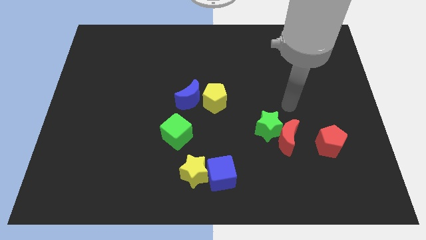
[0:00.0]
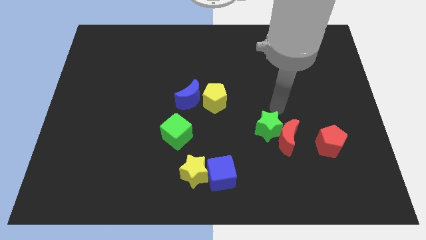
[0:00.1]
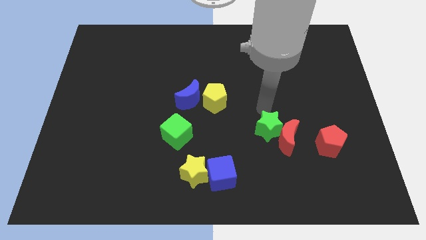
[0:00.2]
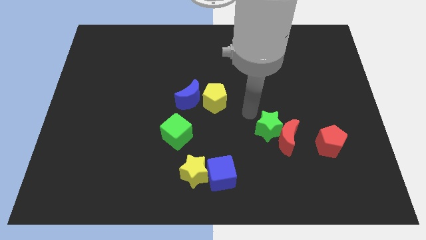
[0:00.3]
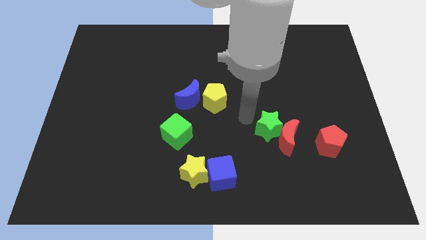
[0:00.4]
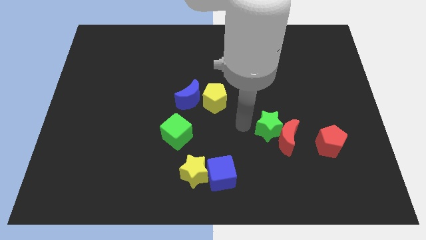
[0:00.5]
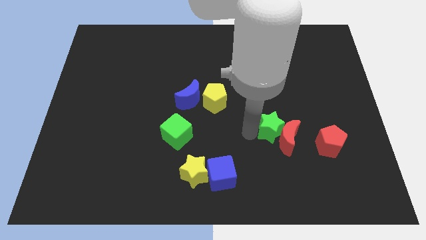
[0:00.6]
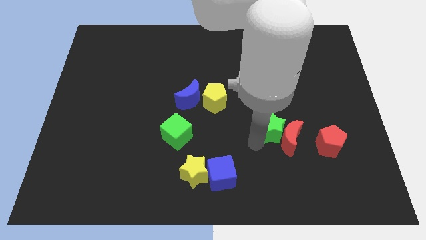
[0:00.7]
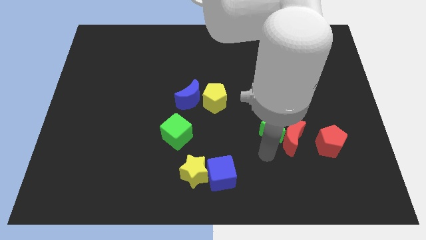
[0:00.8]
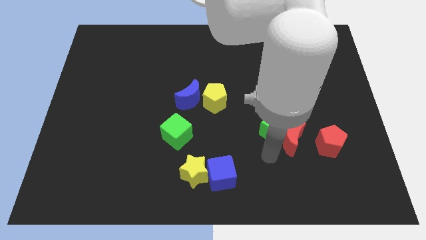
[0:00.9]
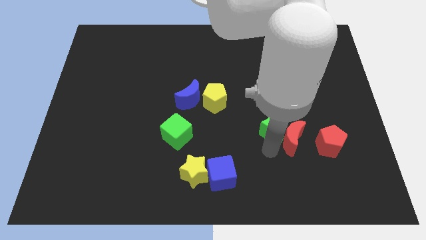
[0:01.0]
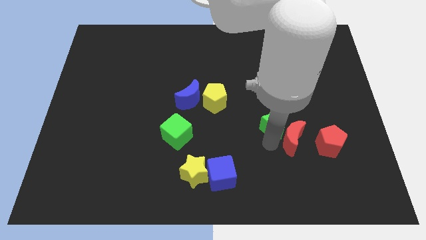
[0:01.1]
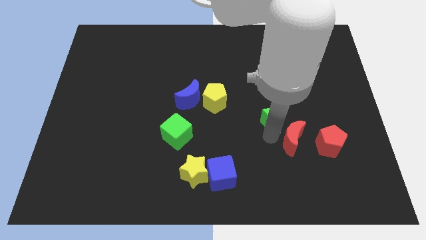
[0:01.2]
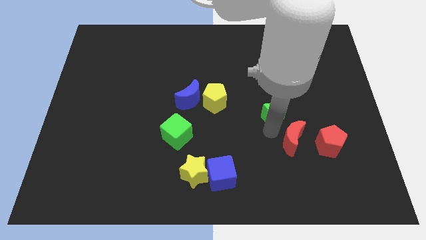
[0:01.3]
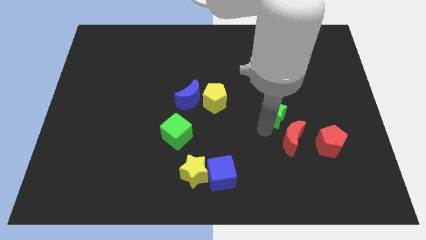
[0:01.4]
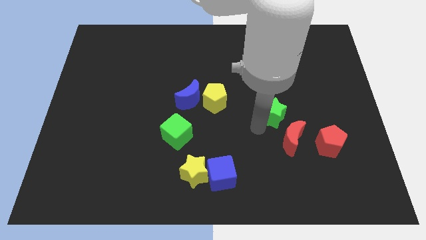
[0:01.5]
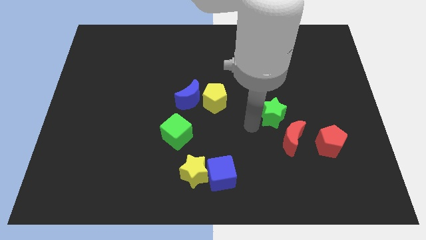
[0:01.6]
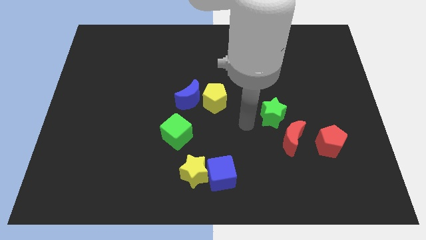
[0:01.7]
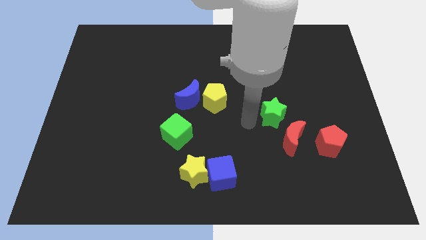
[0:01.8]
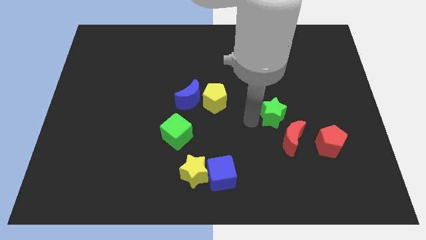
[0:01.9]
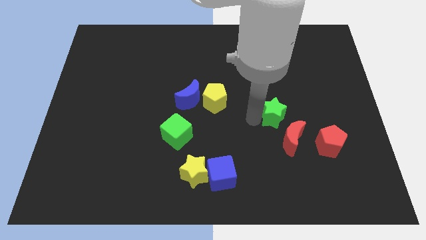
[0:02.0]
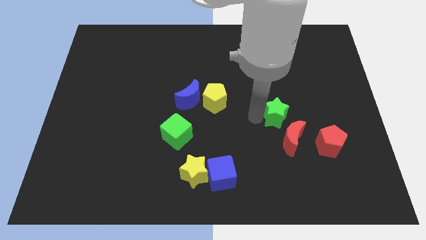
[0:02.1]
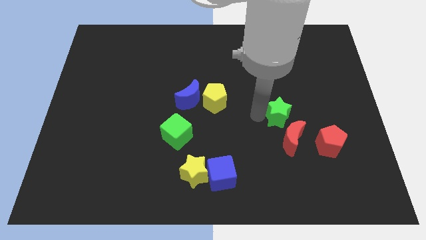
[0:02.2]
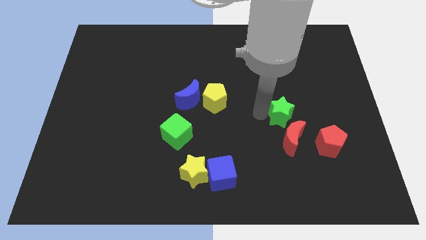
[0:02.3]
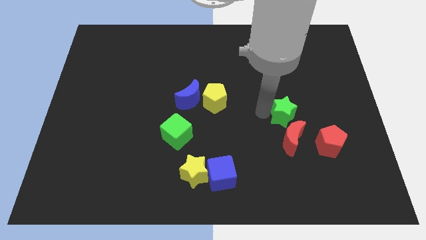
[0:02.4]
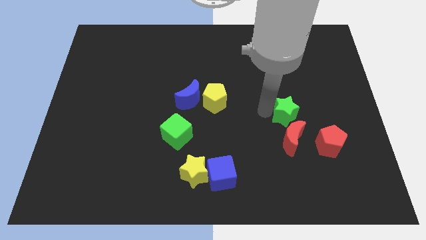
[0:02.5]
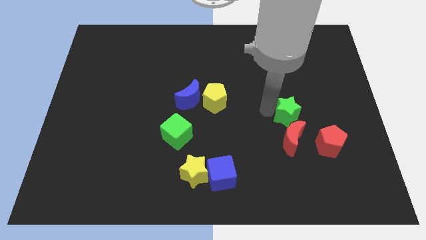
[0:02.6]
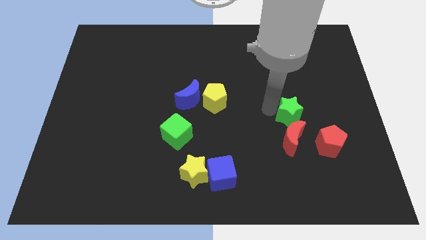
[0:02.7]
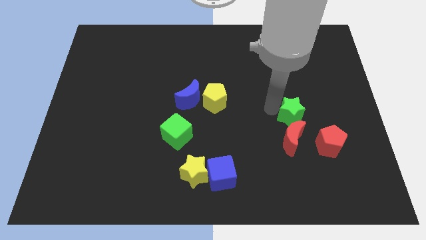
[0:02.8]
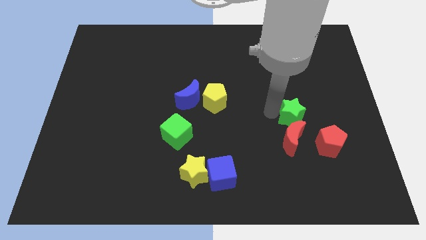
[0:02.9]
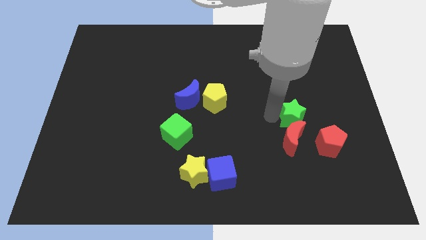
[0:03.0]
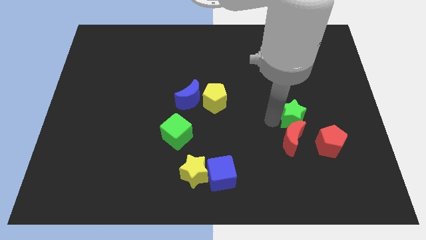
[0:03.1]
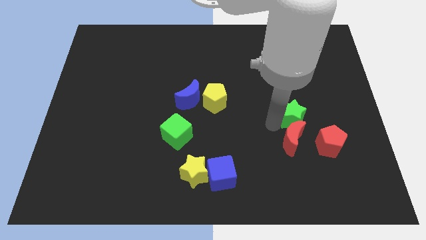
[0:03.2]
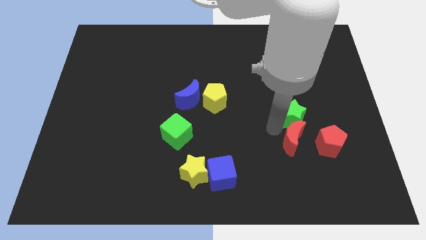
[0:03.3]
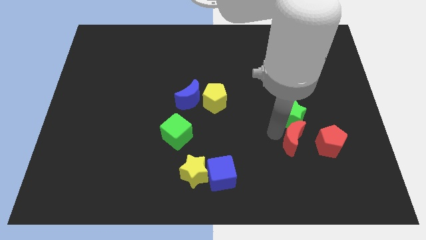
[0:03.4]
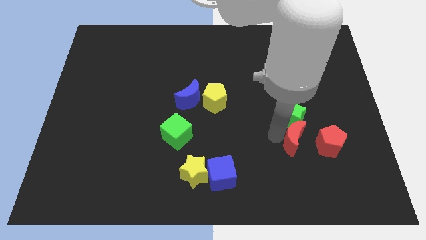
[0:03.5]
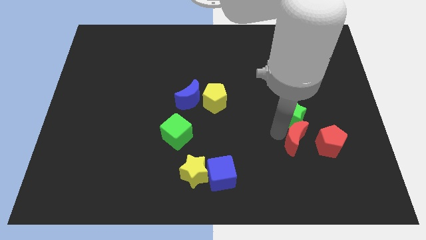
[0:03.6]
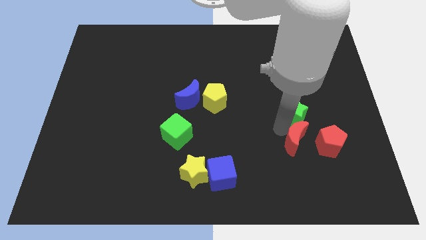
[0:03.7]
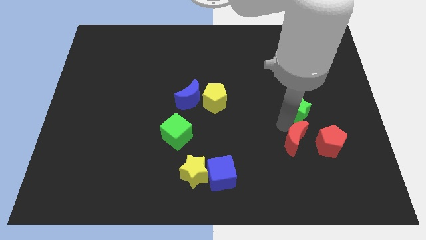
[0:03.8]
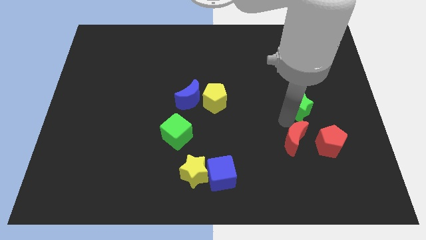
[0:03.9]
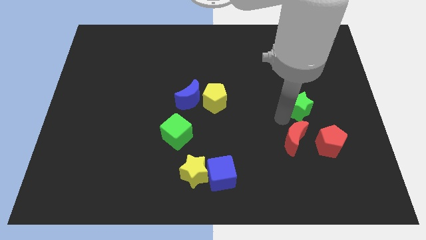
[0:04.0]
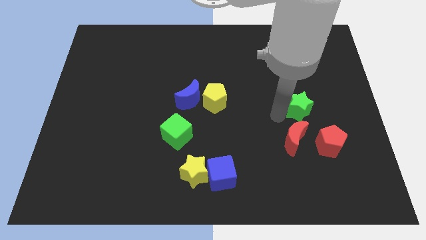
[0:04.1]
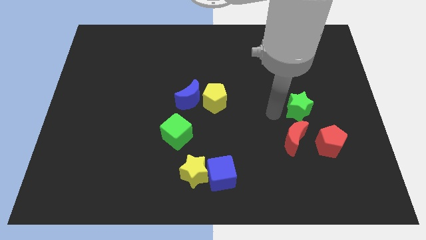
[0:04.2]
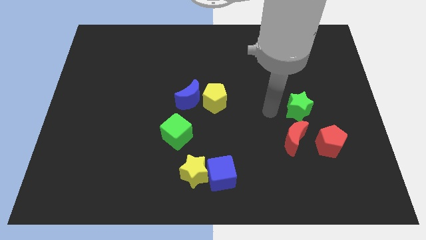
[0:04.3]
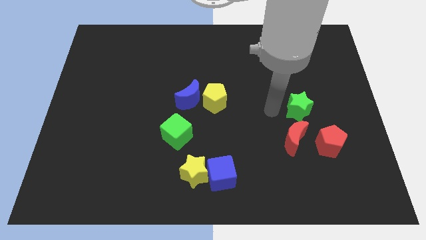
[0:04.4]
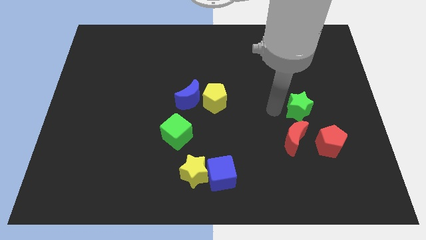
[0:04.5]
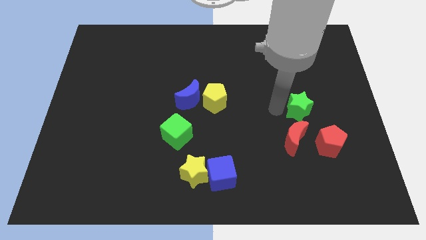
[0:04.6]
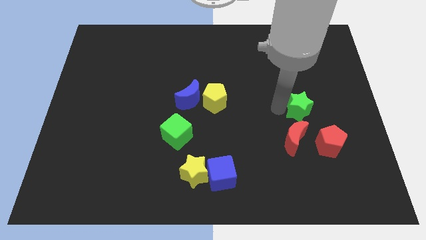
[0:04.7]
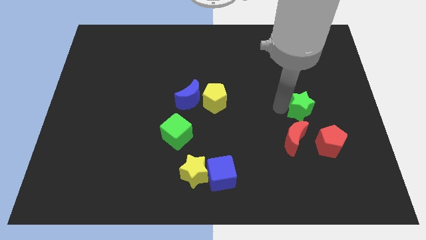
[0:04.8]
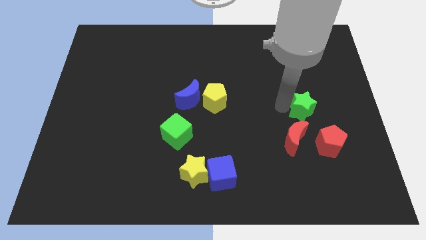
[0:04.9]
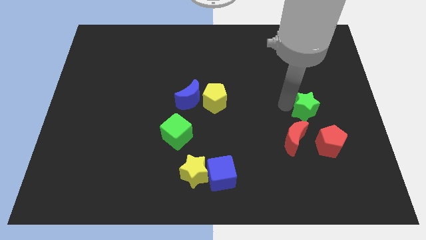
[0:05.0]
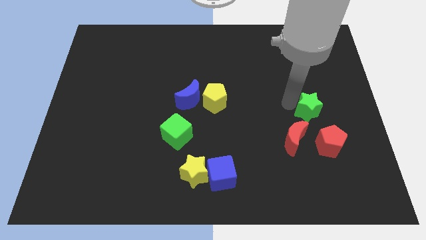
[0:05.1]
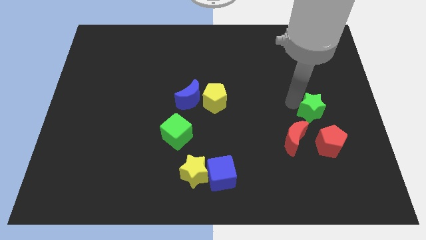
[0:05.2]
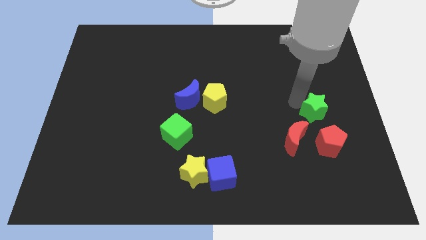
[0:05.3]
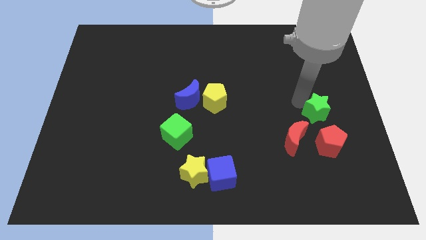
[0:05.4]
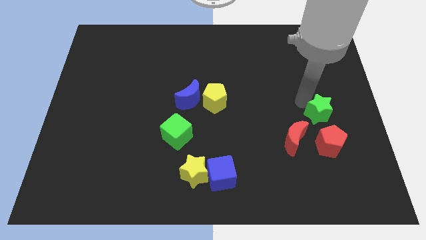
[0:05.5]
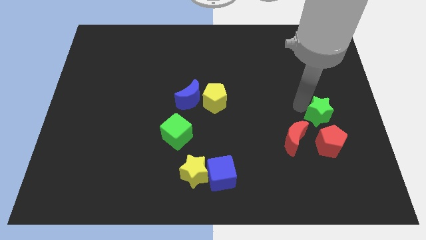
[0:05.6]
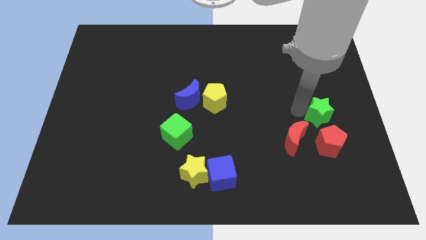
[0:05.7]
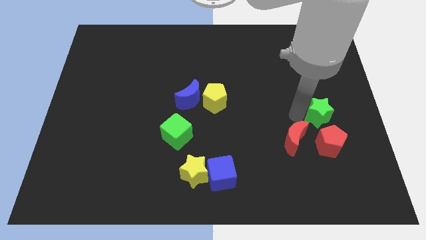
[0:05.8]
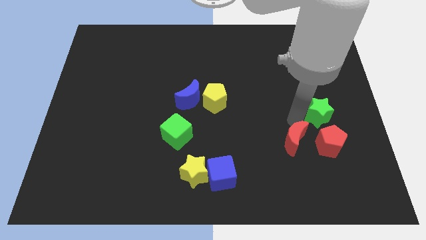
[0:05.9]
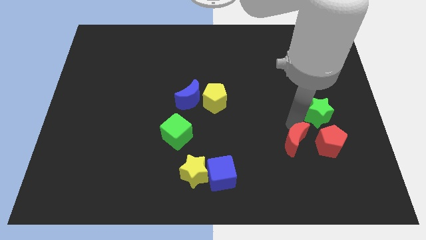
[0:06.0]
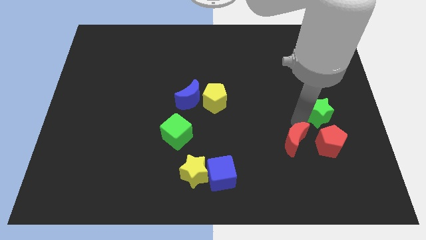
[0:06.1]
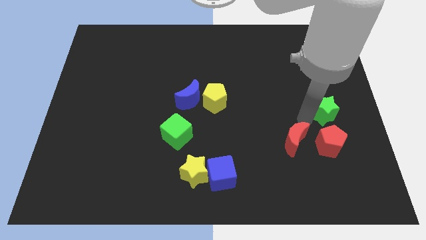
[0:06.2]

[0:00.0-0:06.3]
push the green star to the right side of the board

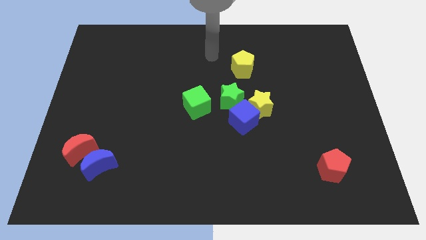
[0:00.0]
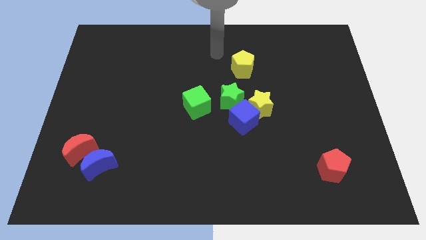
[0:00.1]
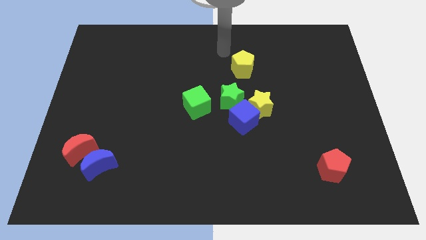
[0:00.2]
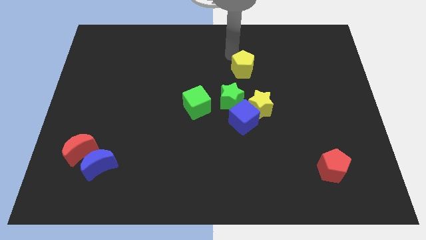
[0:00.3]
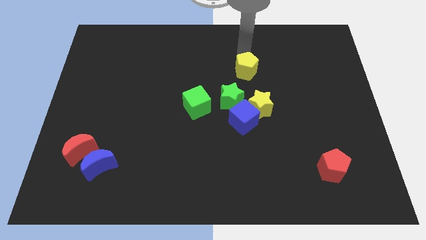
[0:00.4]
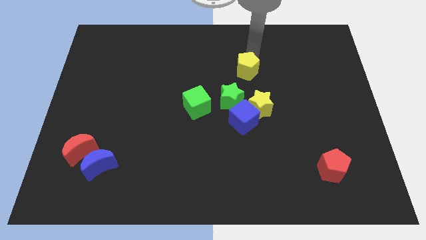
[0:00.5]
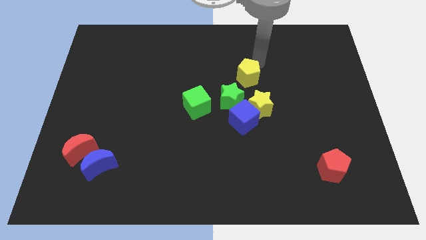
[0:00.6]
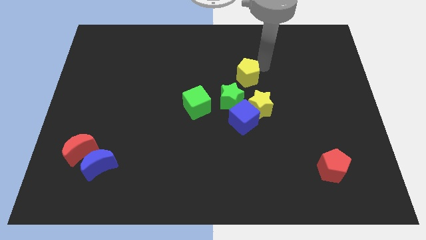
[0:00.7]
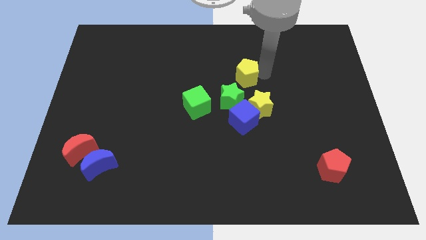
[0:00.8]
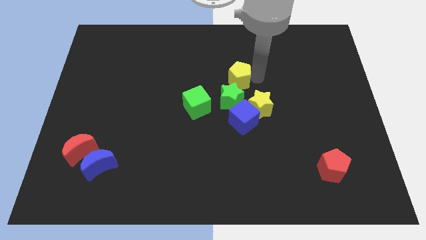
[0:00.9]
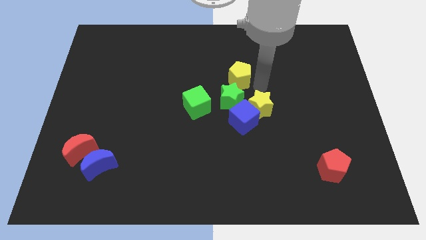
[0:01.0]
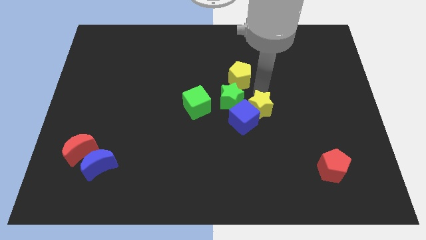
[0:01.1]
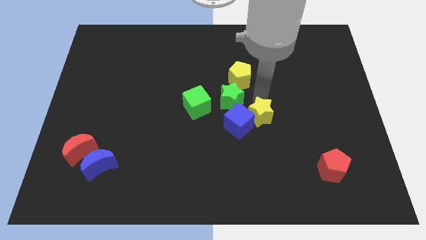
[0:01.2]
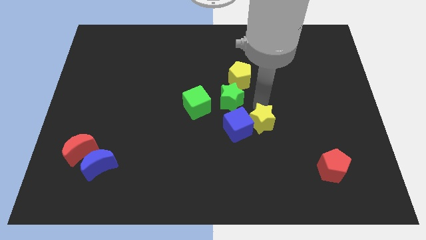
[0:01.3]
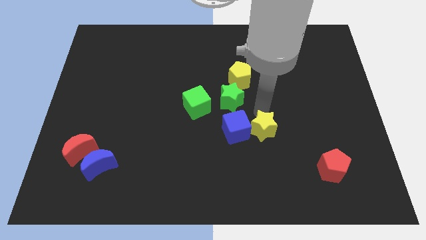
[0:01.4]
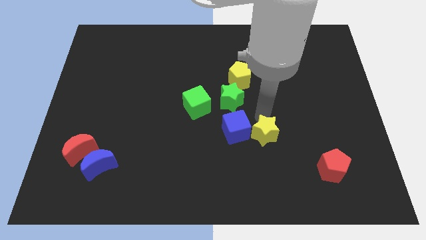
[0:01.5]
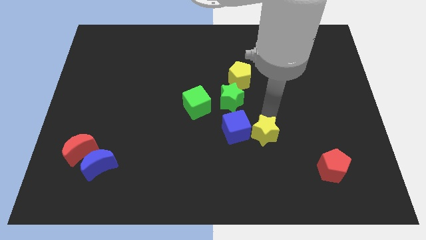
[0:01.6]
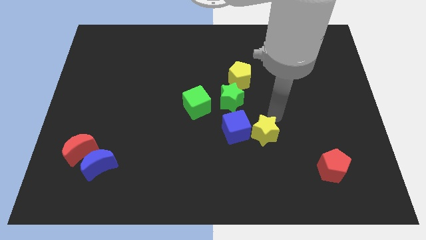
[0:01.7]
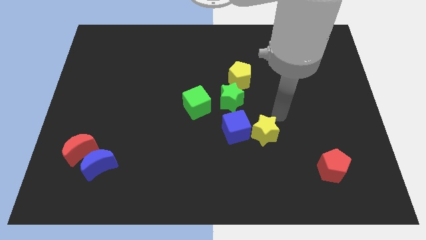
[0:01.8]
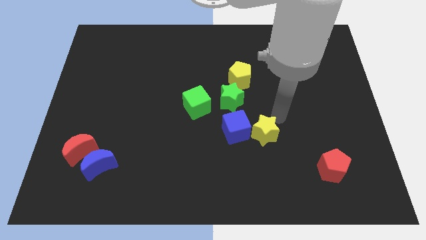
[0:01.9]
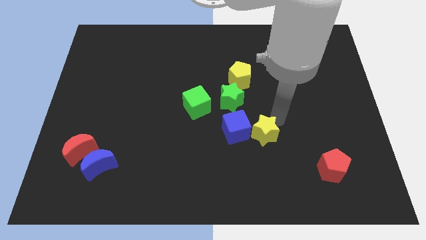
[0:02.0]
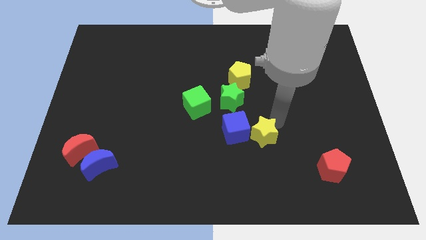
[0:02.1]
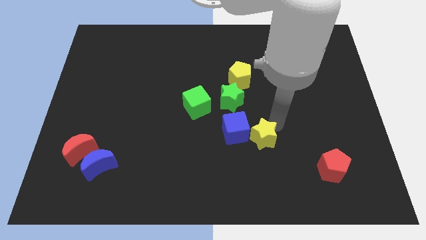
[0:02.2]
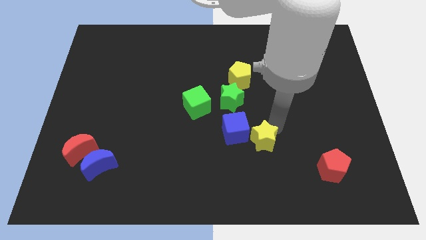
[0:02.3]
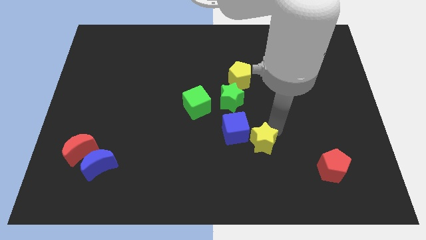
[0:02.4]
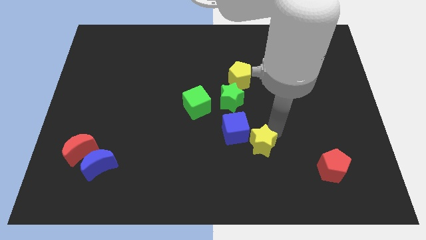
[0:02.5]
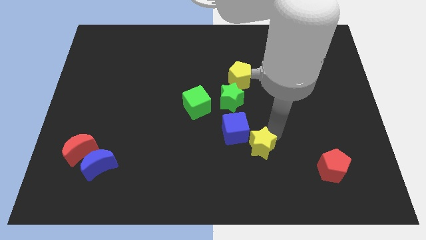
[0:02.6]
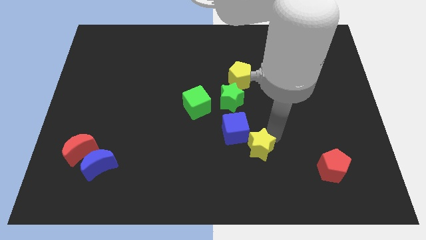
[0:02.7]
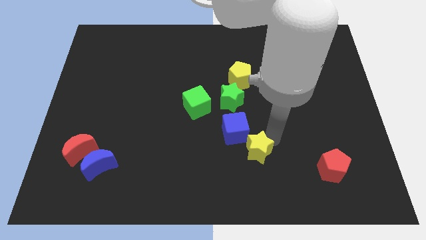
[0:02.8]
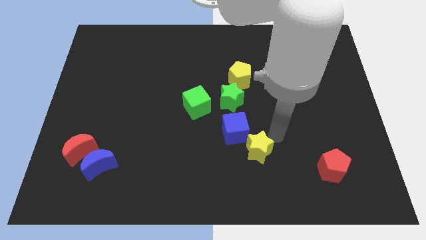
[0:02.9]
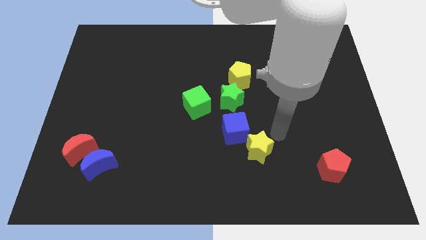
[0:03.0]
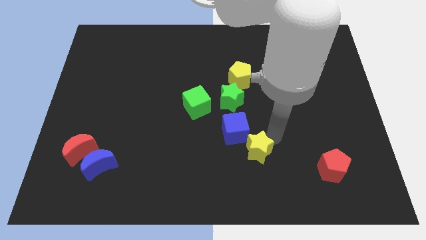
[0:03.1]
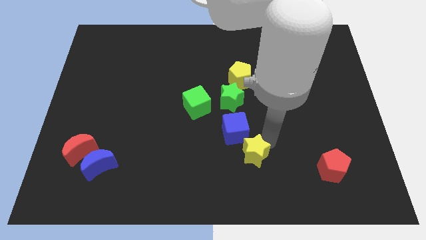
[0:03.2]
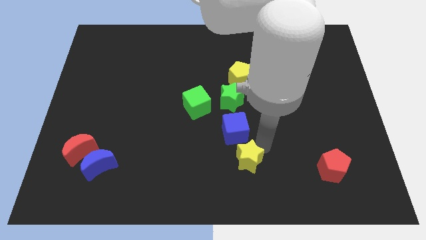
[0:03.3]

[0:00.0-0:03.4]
move the yellow star to the bottom side
